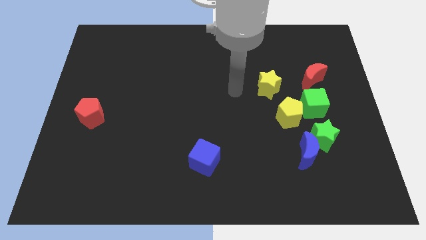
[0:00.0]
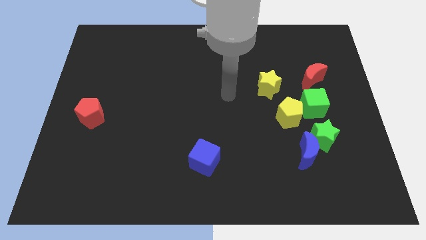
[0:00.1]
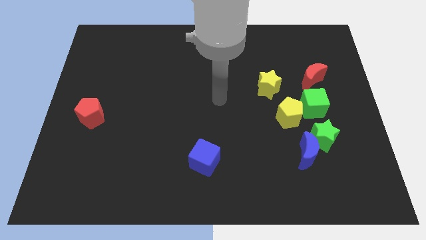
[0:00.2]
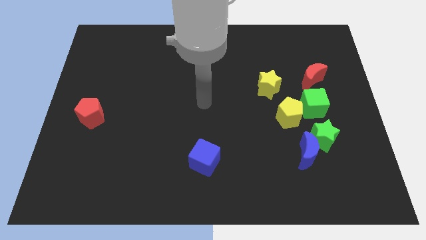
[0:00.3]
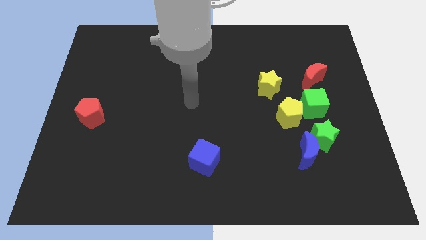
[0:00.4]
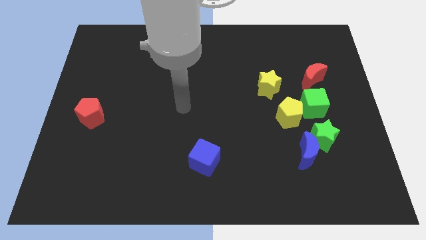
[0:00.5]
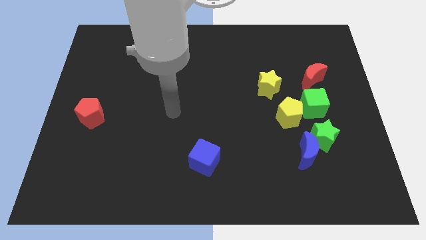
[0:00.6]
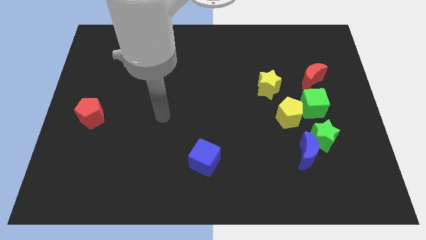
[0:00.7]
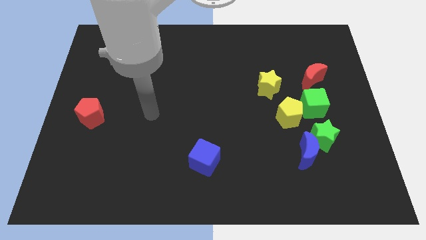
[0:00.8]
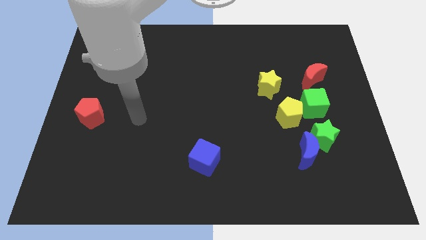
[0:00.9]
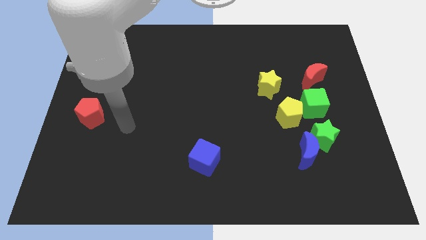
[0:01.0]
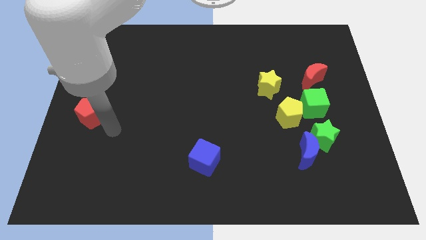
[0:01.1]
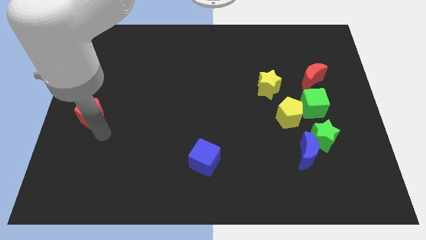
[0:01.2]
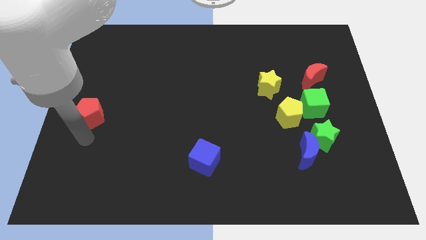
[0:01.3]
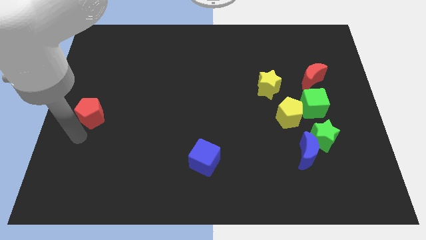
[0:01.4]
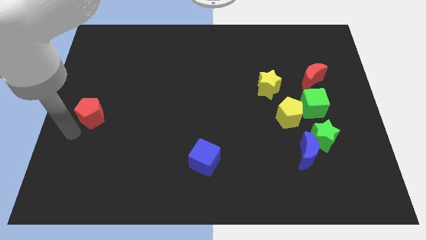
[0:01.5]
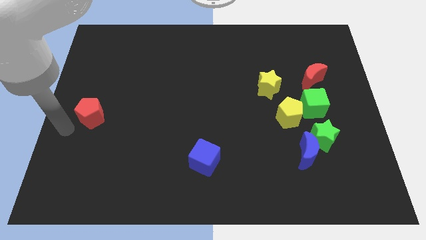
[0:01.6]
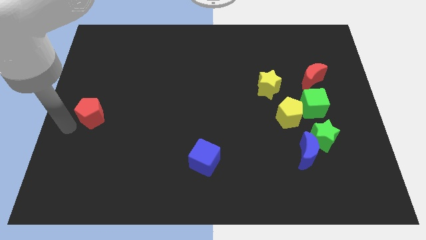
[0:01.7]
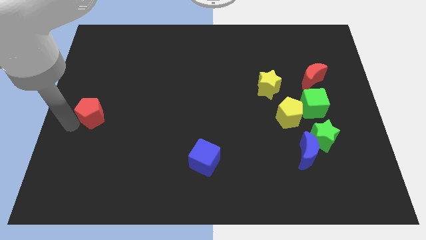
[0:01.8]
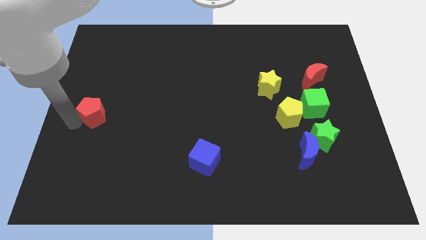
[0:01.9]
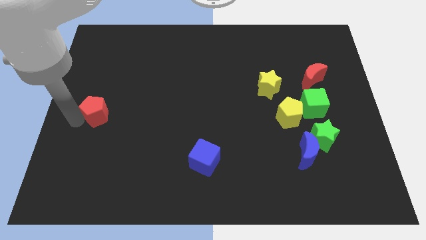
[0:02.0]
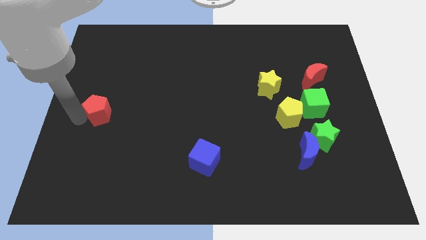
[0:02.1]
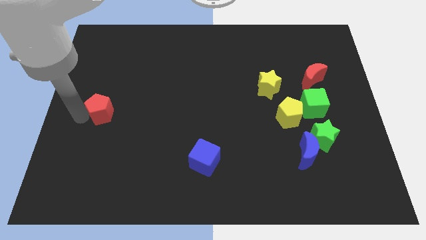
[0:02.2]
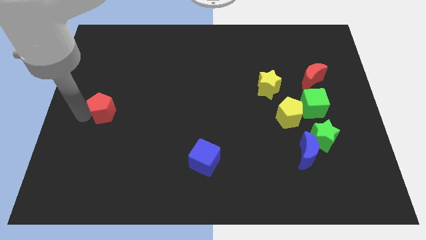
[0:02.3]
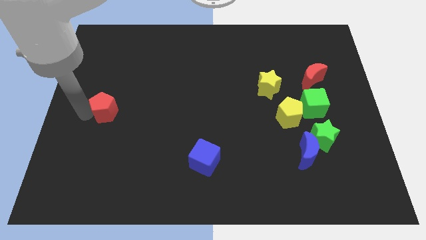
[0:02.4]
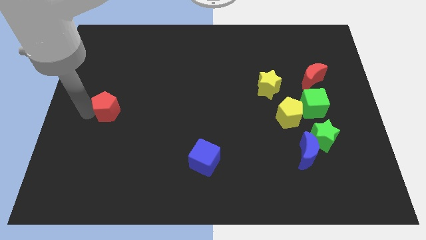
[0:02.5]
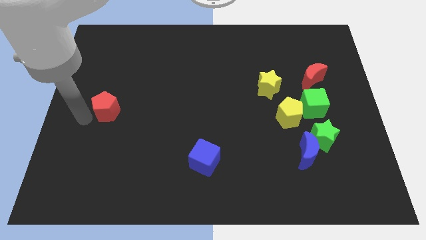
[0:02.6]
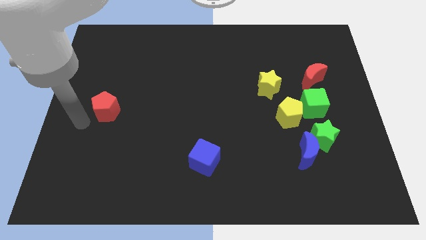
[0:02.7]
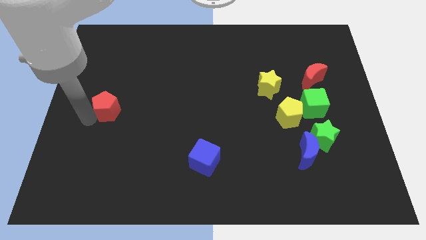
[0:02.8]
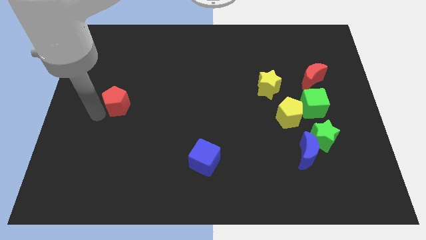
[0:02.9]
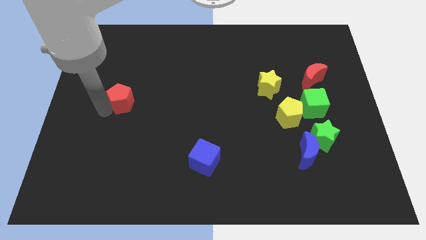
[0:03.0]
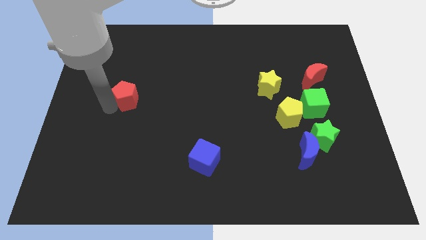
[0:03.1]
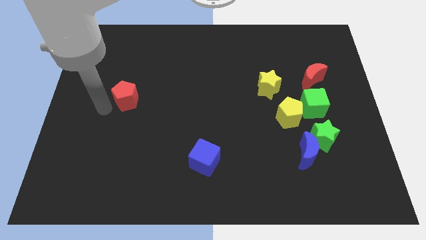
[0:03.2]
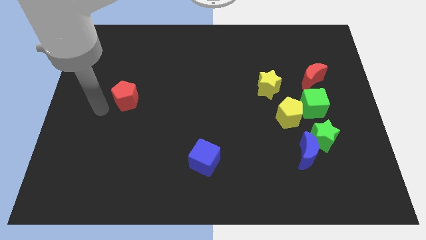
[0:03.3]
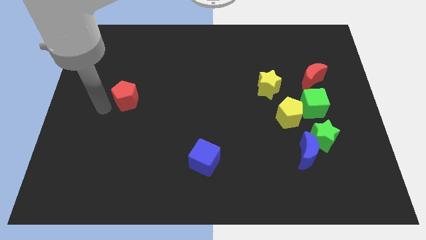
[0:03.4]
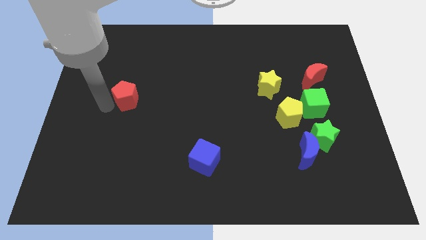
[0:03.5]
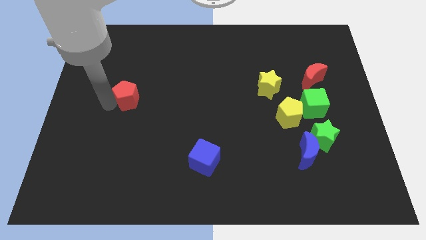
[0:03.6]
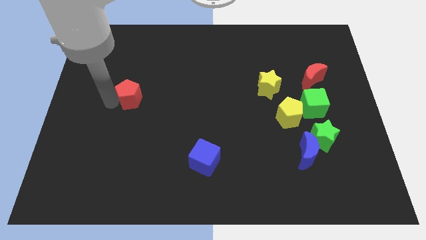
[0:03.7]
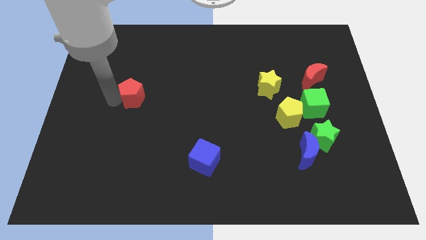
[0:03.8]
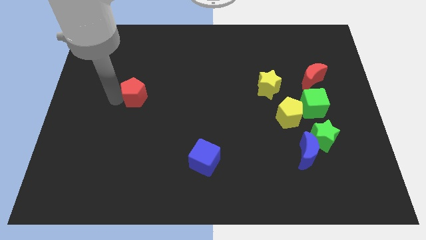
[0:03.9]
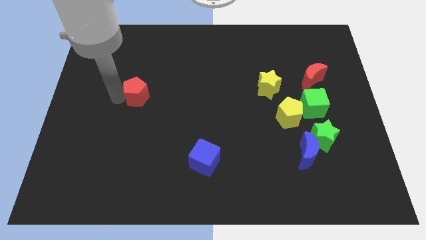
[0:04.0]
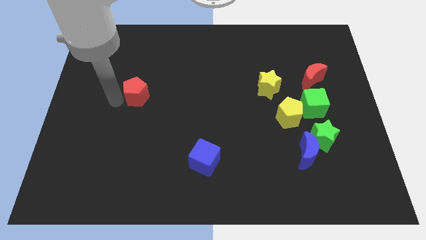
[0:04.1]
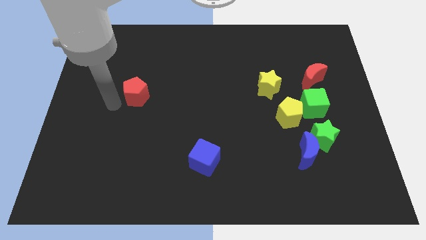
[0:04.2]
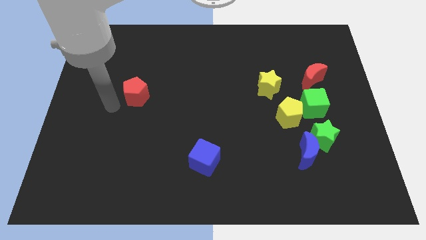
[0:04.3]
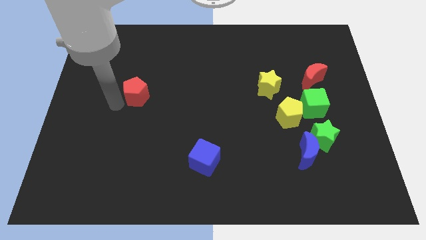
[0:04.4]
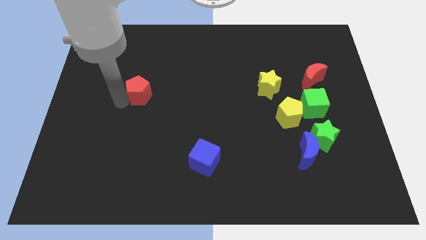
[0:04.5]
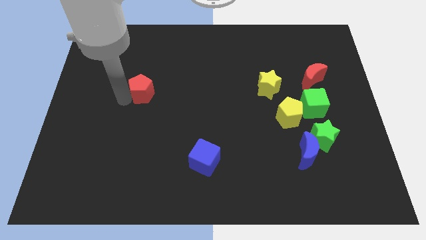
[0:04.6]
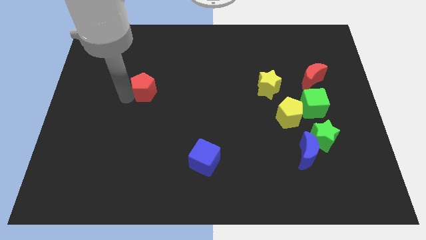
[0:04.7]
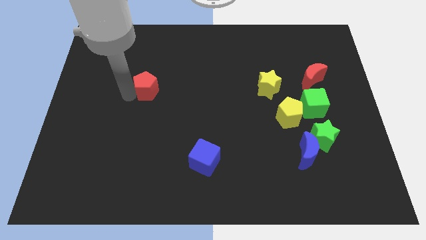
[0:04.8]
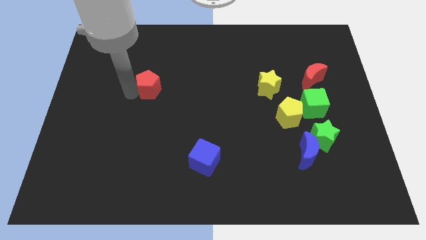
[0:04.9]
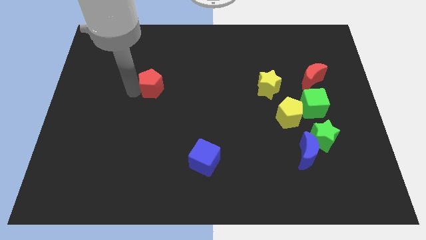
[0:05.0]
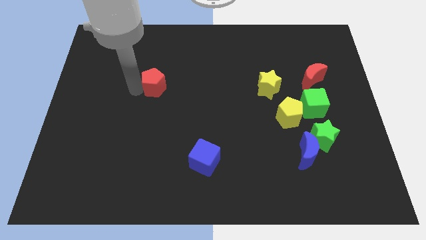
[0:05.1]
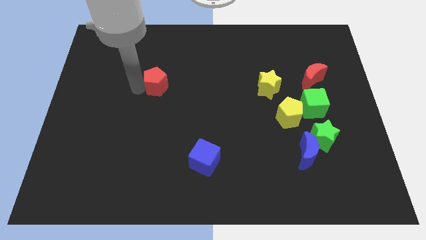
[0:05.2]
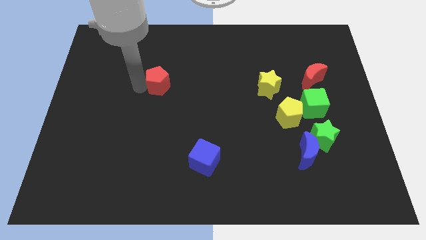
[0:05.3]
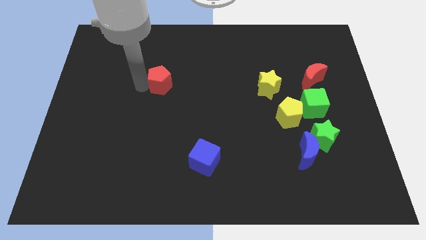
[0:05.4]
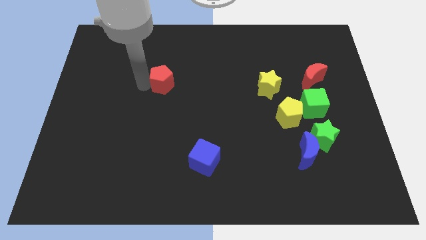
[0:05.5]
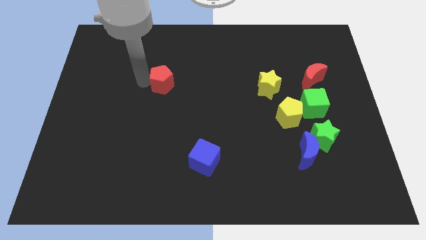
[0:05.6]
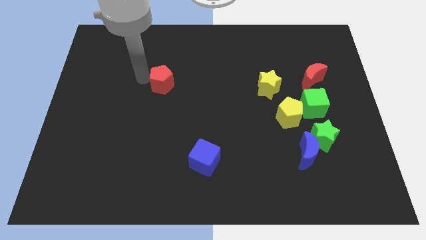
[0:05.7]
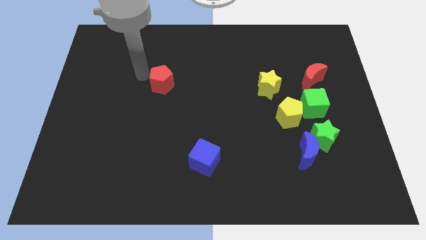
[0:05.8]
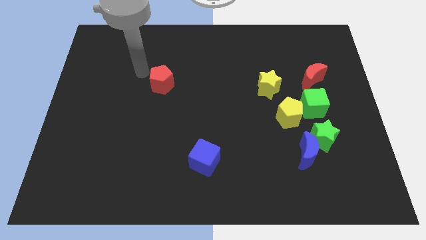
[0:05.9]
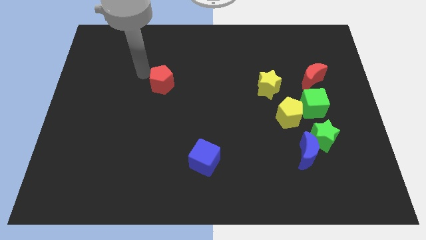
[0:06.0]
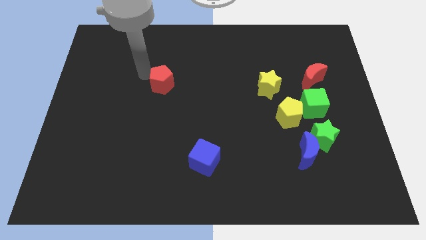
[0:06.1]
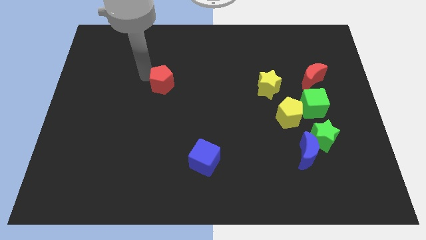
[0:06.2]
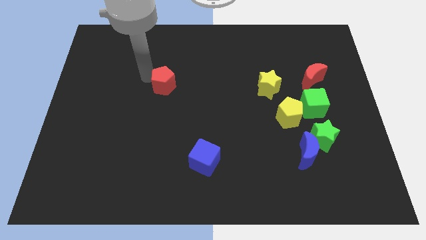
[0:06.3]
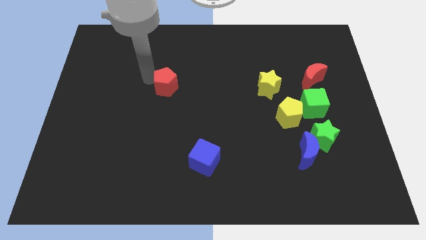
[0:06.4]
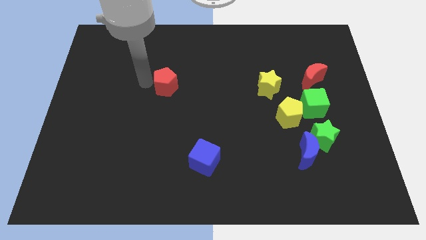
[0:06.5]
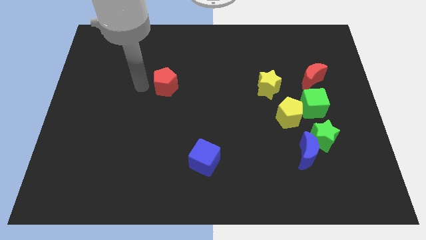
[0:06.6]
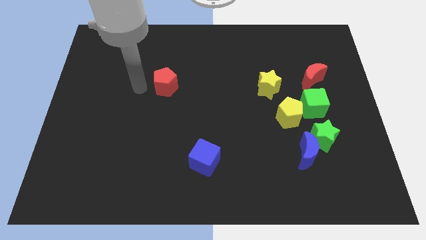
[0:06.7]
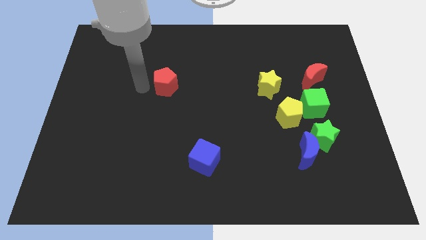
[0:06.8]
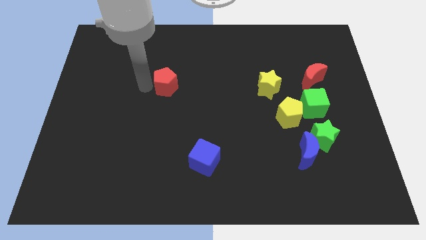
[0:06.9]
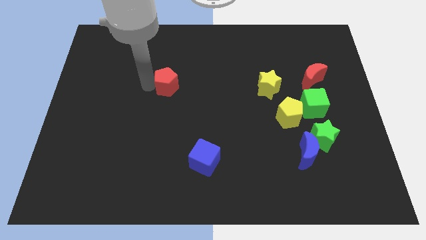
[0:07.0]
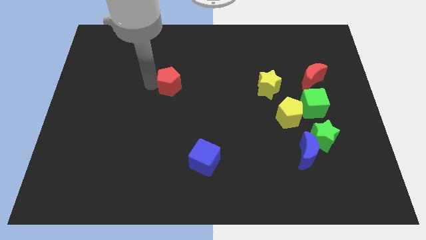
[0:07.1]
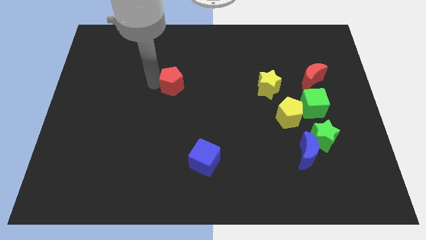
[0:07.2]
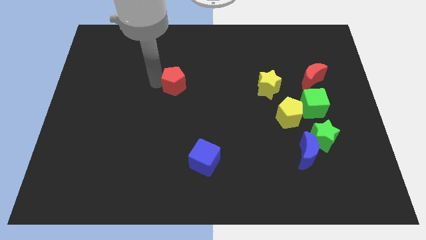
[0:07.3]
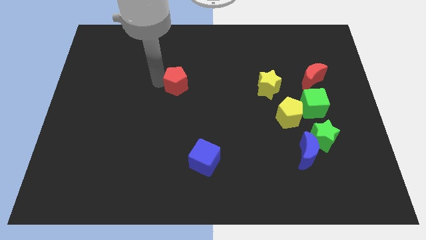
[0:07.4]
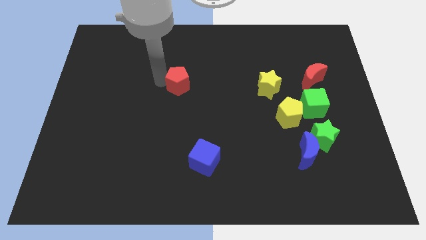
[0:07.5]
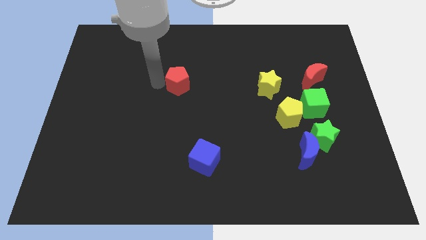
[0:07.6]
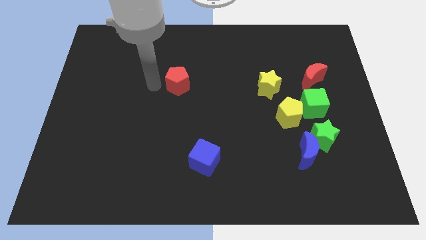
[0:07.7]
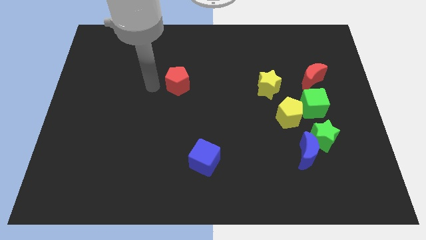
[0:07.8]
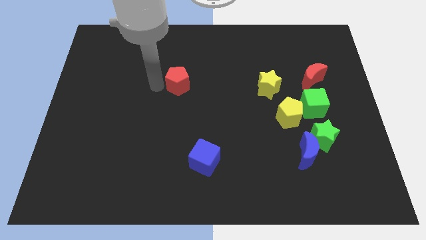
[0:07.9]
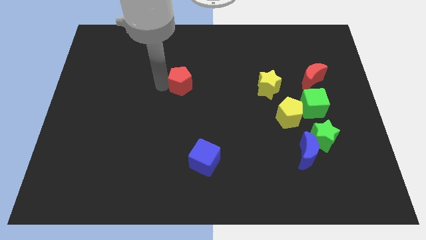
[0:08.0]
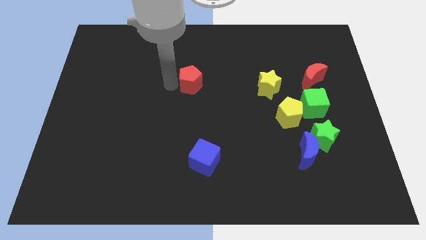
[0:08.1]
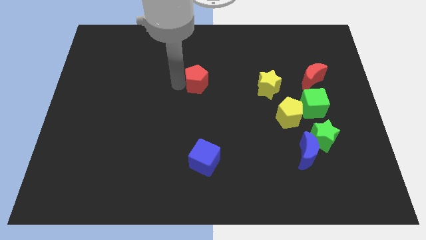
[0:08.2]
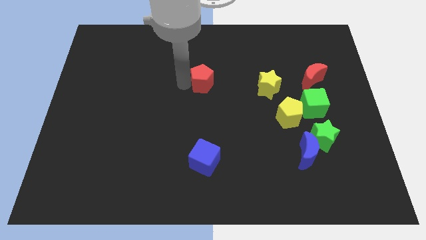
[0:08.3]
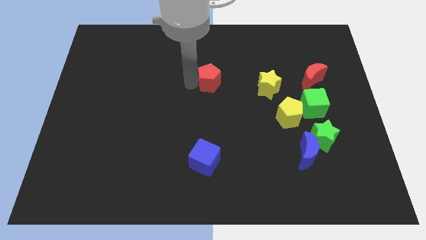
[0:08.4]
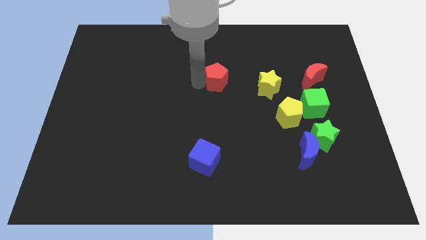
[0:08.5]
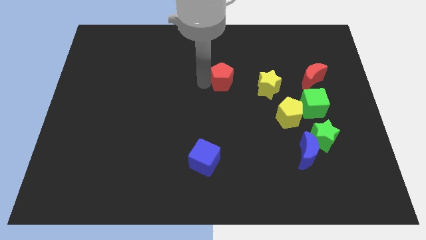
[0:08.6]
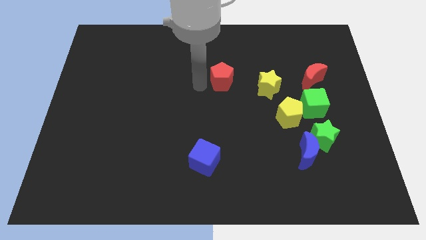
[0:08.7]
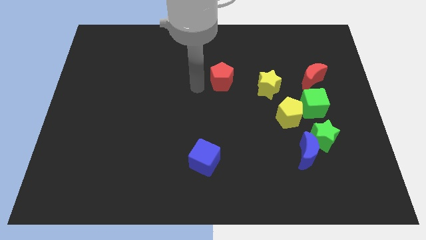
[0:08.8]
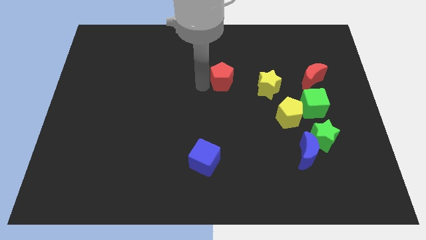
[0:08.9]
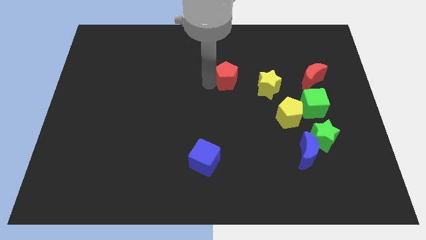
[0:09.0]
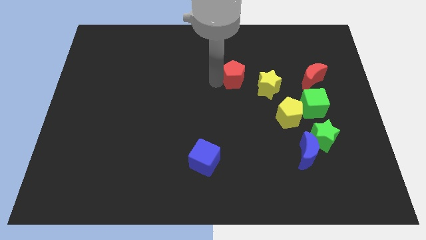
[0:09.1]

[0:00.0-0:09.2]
push the red pentagon diagonally up and to the left of the yellow star
